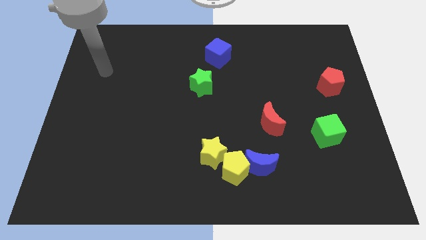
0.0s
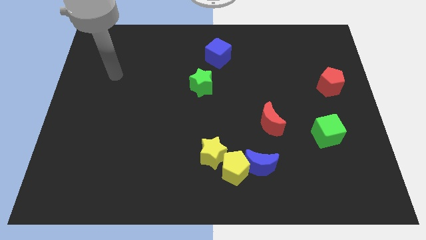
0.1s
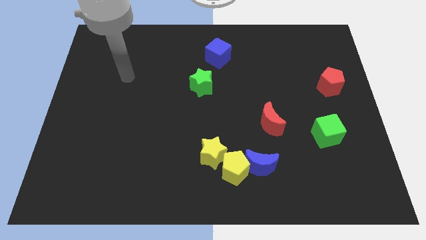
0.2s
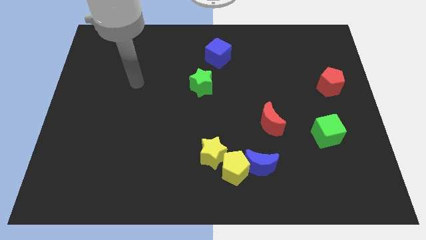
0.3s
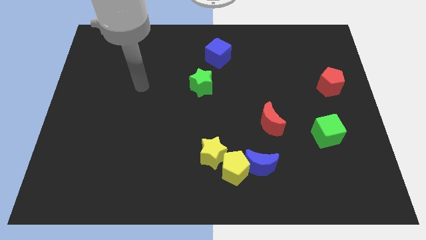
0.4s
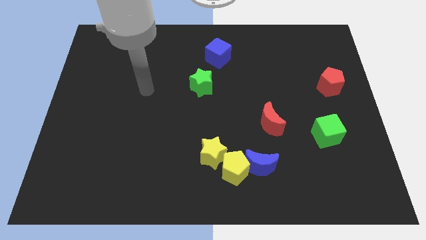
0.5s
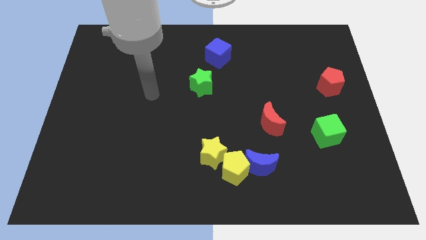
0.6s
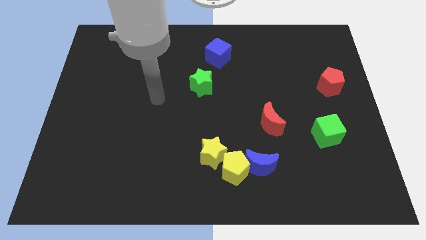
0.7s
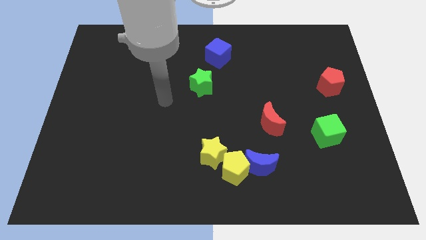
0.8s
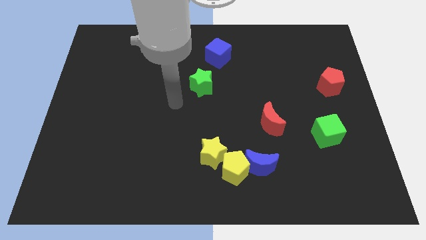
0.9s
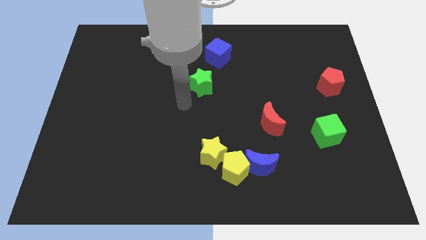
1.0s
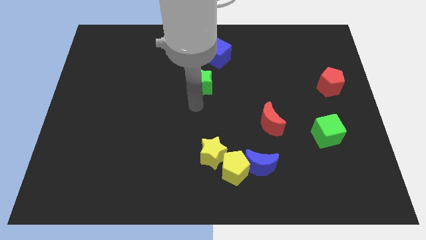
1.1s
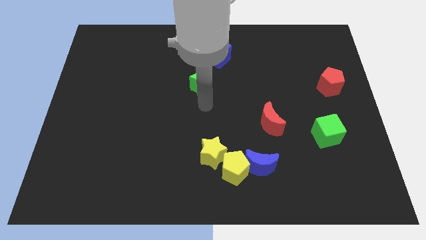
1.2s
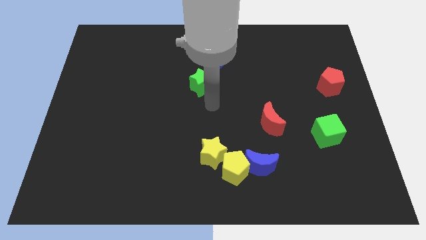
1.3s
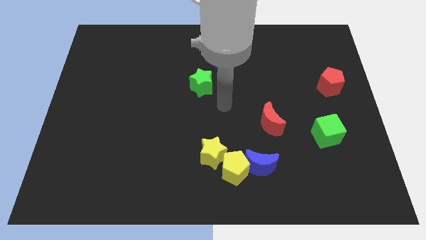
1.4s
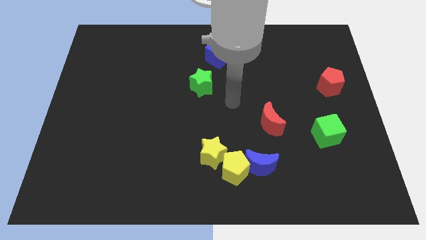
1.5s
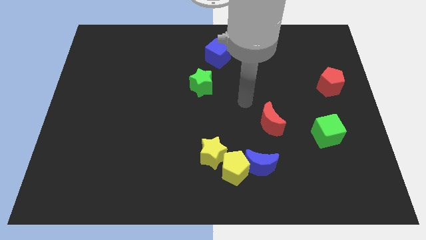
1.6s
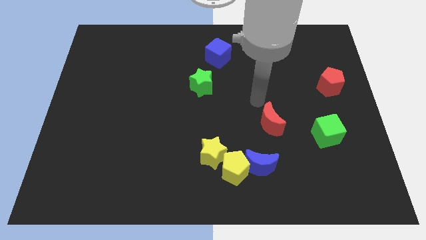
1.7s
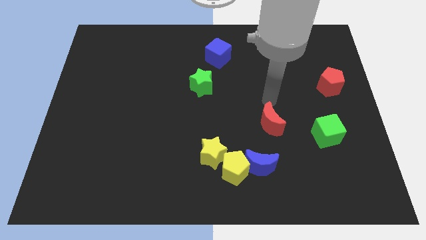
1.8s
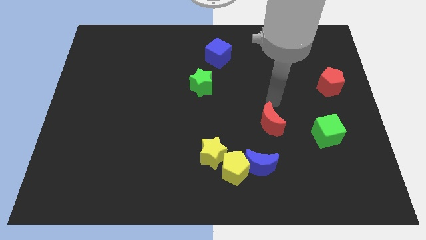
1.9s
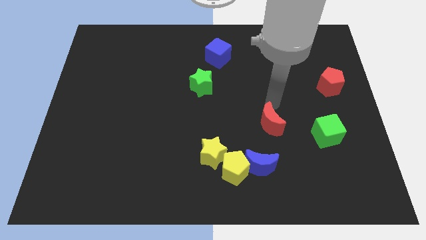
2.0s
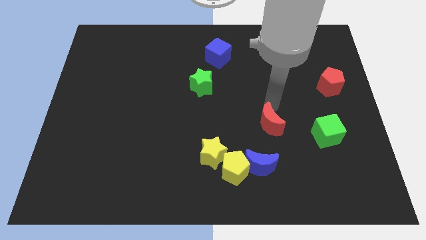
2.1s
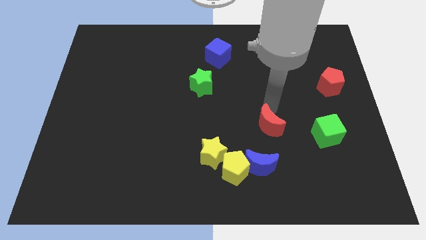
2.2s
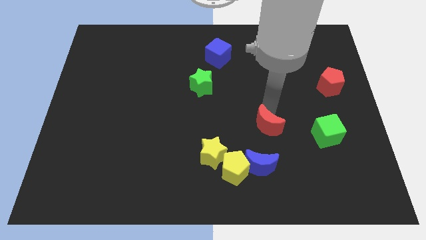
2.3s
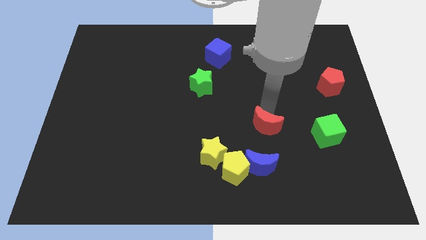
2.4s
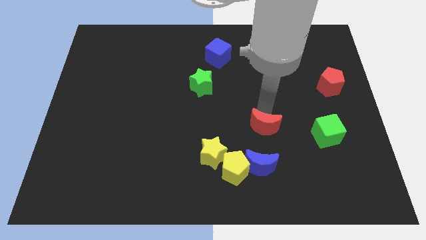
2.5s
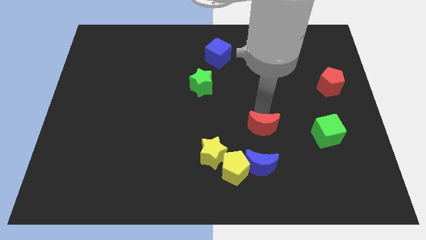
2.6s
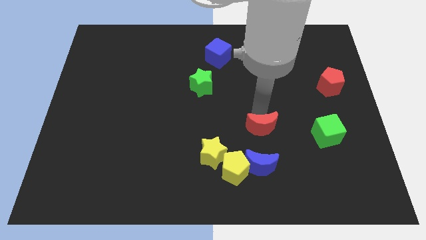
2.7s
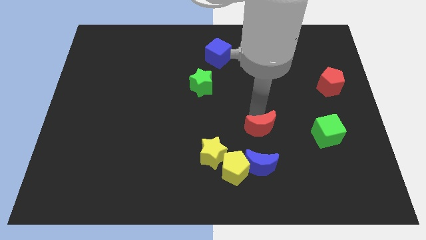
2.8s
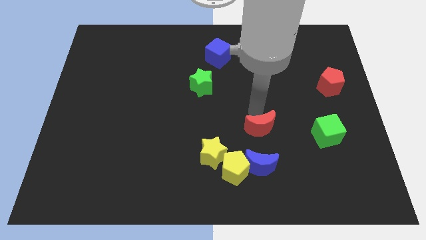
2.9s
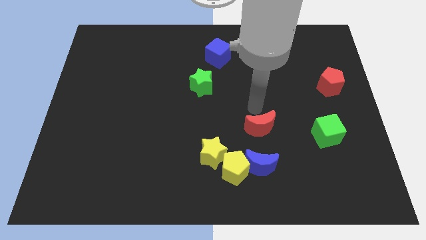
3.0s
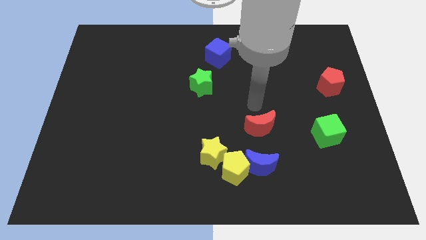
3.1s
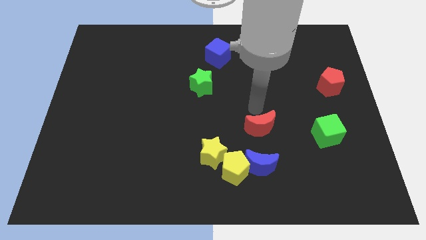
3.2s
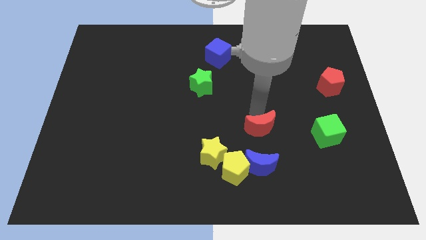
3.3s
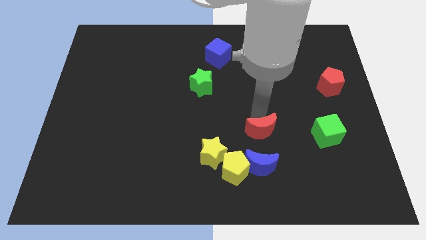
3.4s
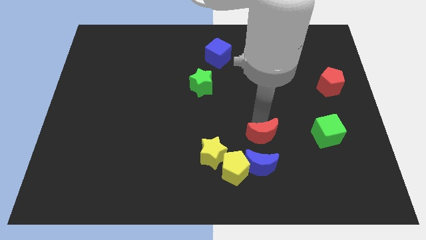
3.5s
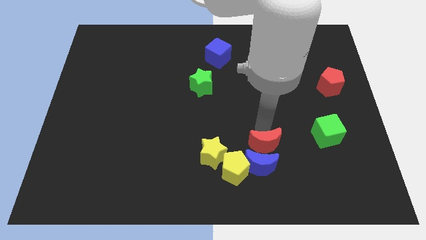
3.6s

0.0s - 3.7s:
put the red moon next to the blue moon

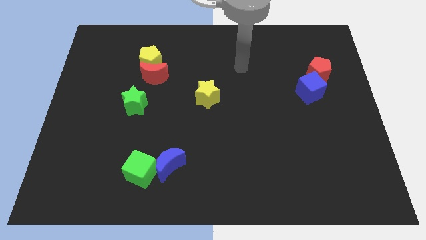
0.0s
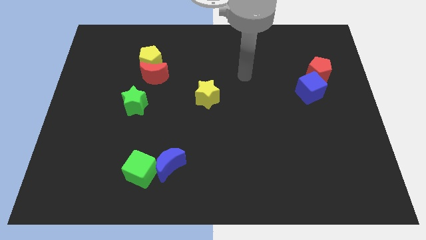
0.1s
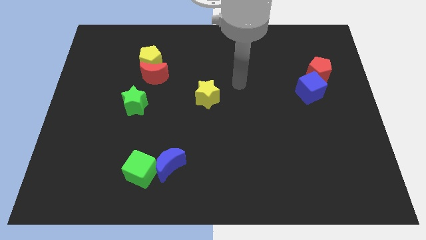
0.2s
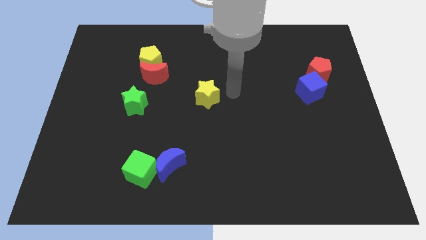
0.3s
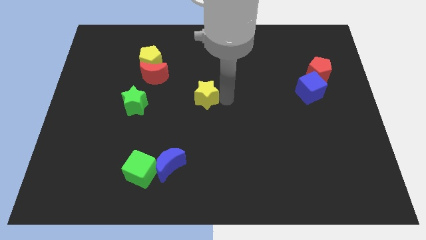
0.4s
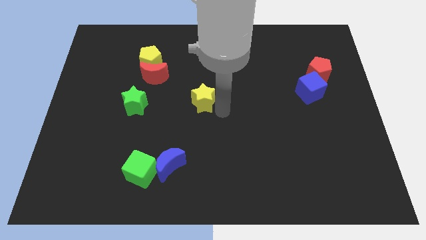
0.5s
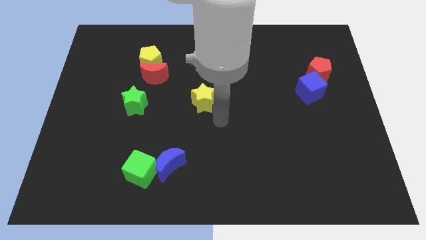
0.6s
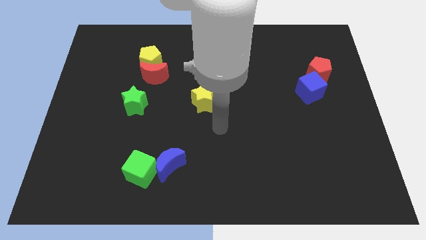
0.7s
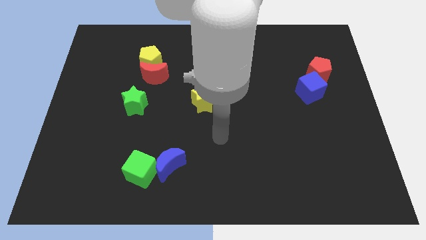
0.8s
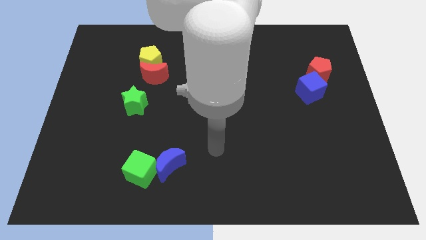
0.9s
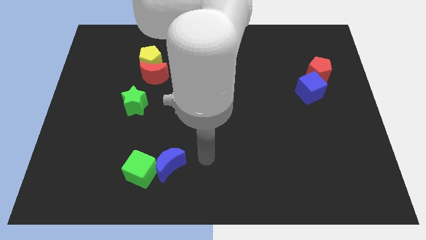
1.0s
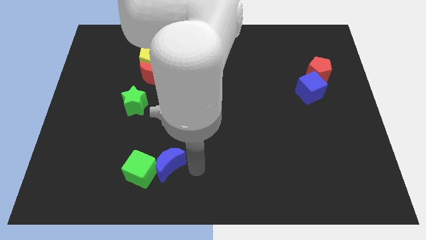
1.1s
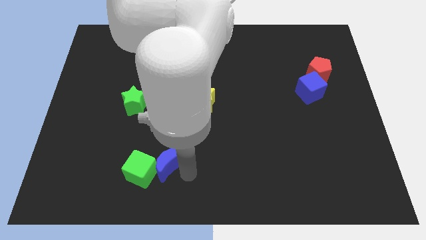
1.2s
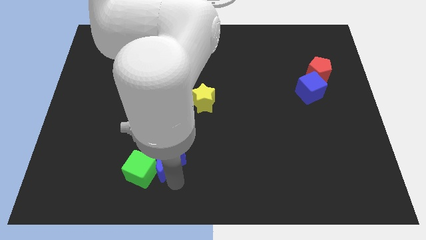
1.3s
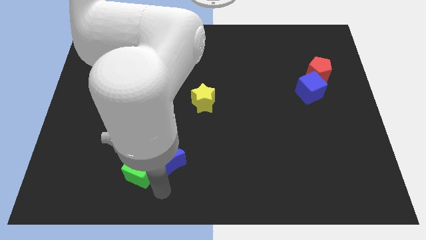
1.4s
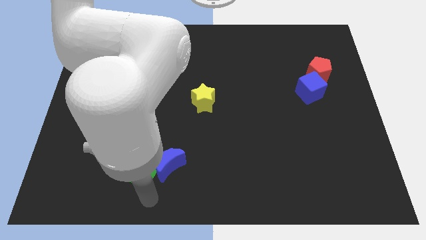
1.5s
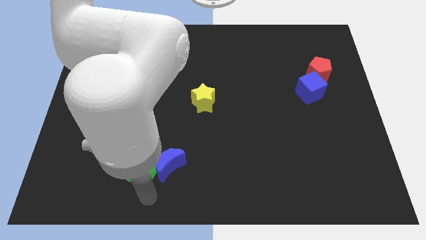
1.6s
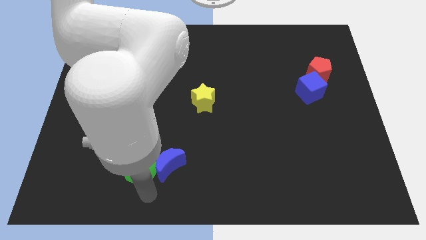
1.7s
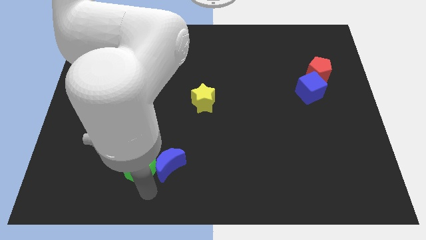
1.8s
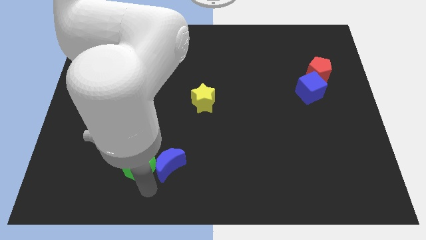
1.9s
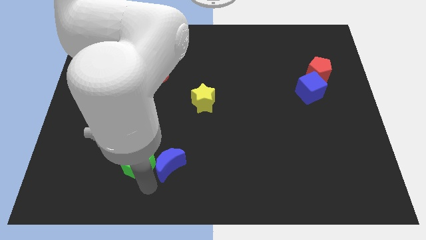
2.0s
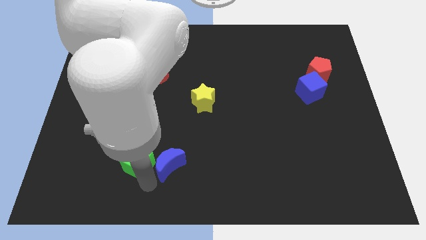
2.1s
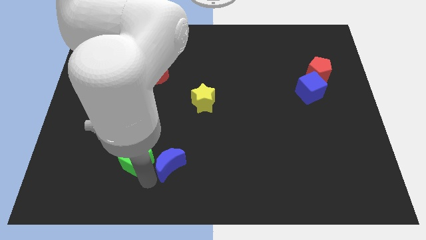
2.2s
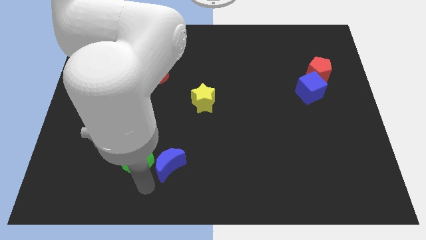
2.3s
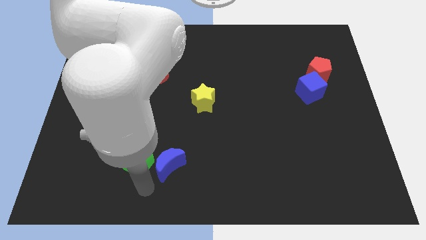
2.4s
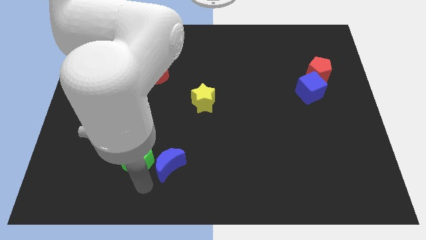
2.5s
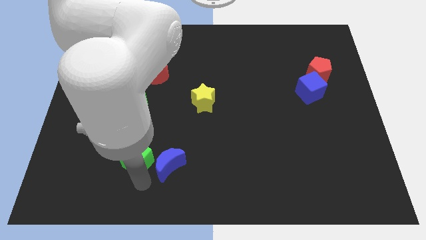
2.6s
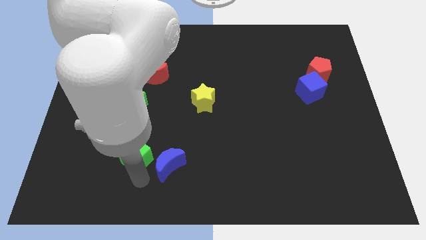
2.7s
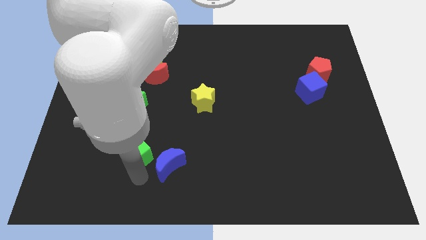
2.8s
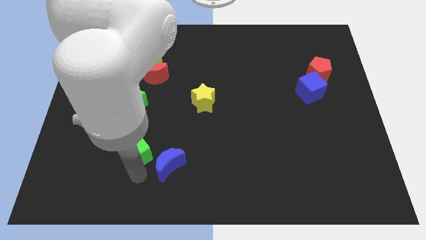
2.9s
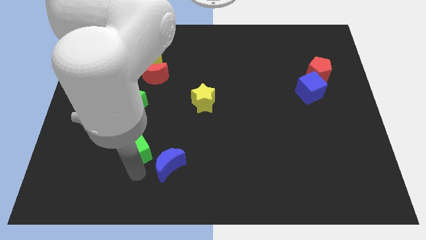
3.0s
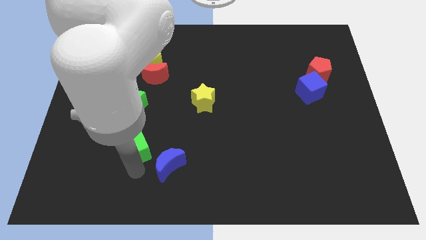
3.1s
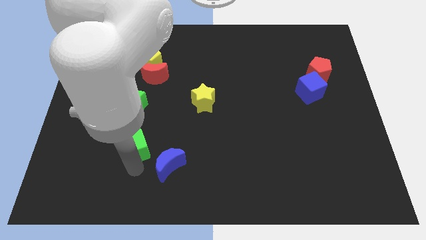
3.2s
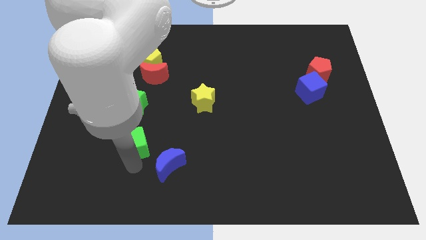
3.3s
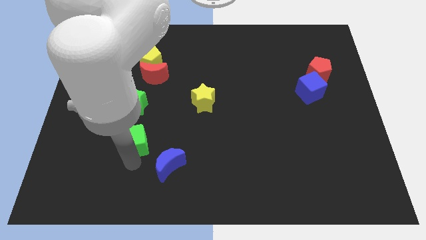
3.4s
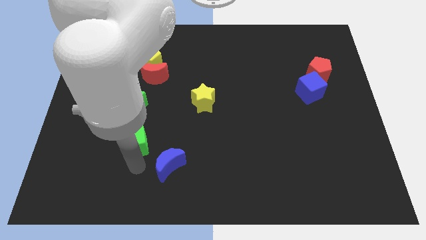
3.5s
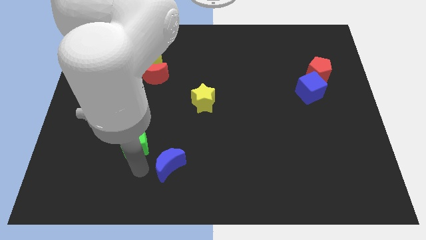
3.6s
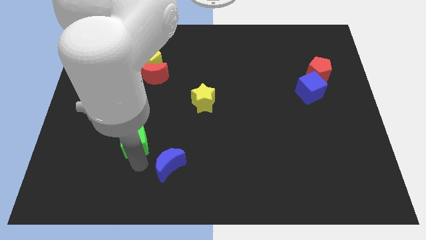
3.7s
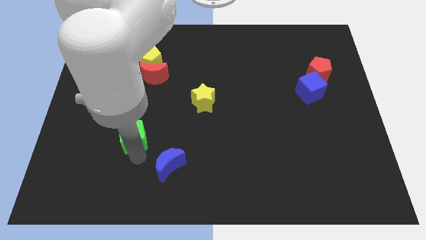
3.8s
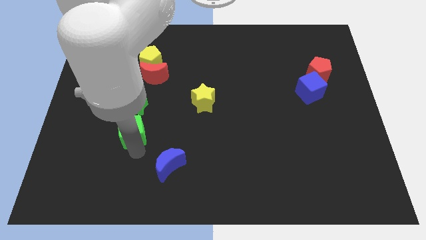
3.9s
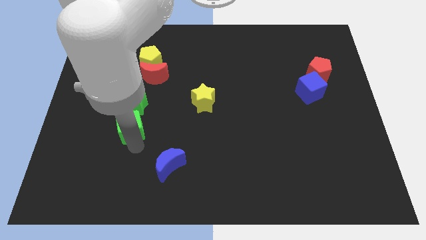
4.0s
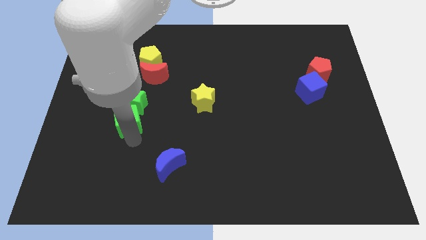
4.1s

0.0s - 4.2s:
slide the green cube next to the green star

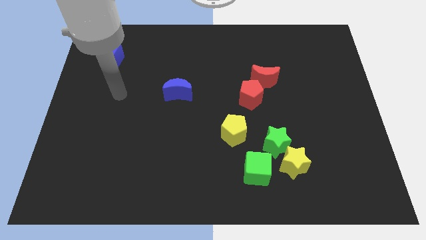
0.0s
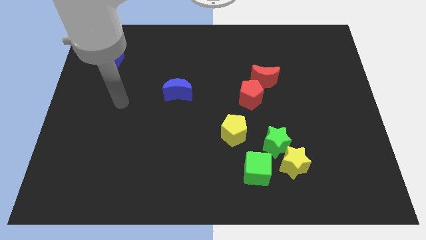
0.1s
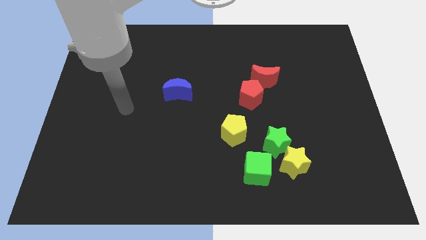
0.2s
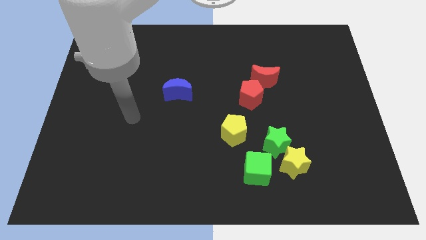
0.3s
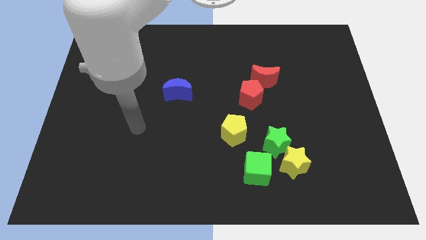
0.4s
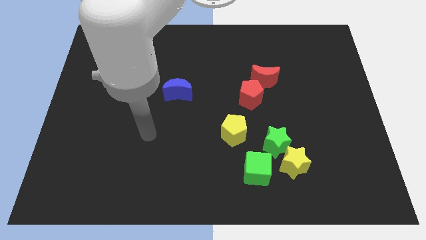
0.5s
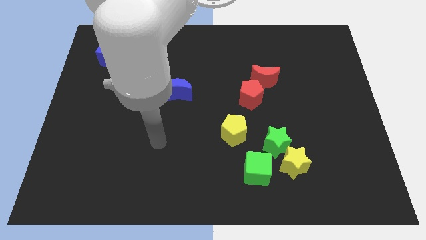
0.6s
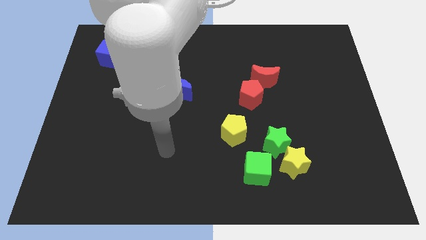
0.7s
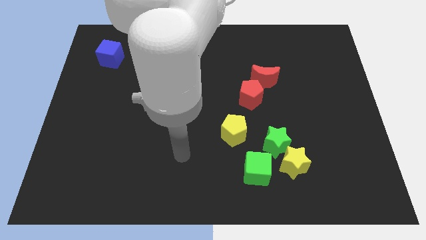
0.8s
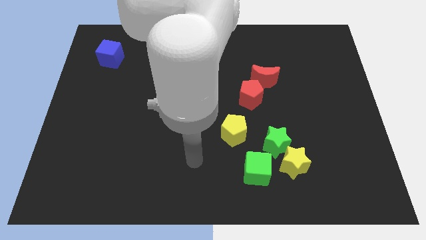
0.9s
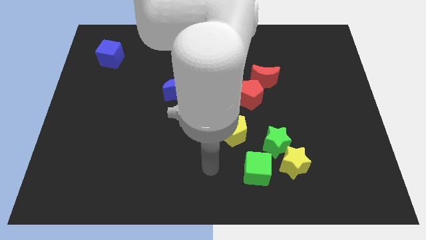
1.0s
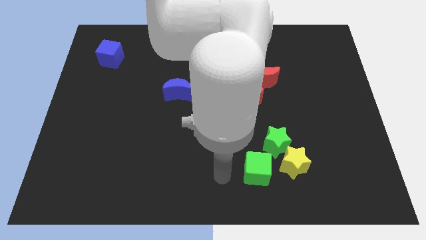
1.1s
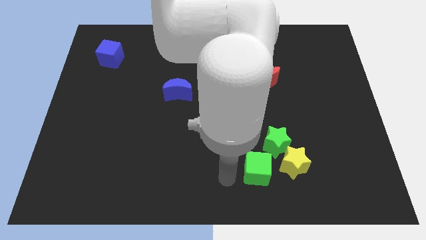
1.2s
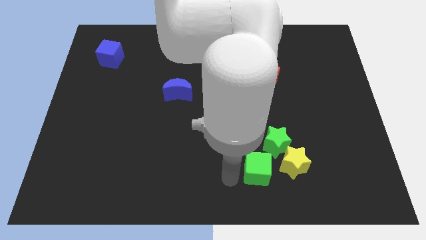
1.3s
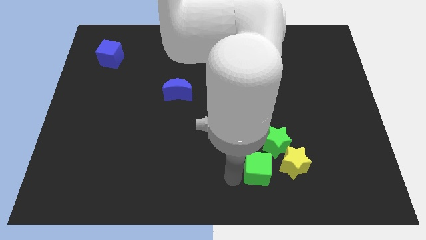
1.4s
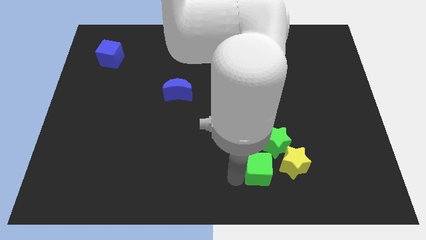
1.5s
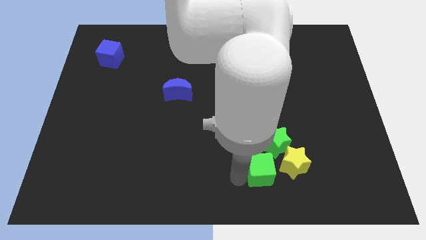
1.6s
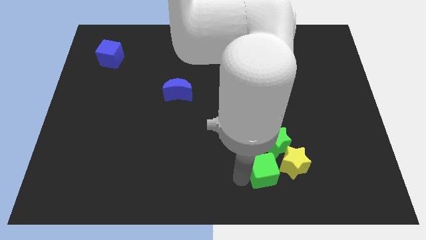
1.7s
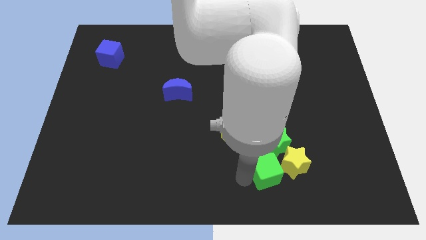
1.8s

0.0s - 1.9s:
push the green cube next to the yellow star
